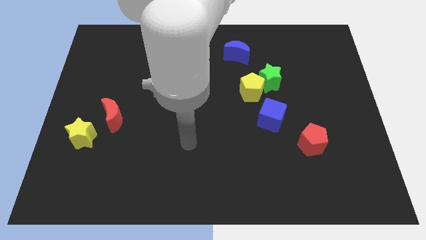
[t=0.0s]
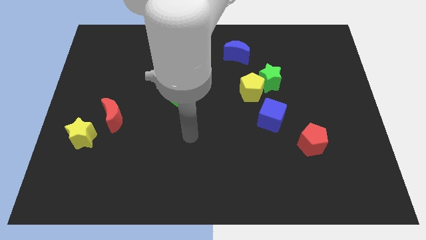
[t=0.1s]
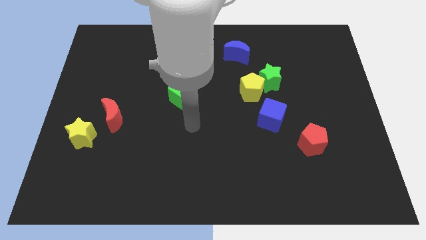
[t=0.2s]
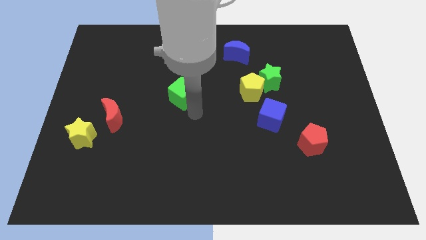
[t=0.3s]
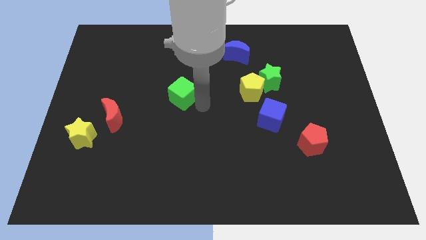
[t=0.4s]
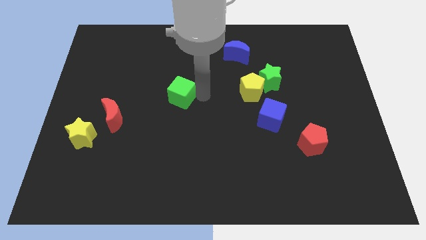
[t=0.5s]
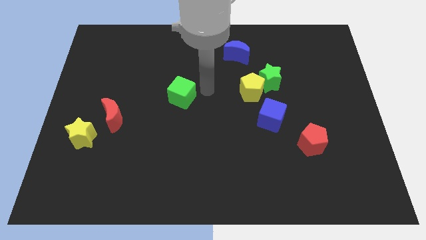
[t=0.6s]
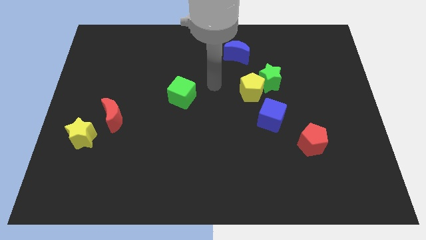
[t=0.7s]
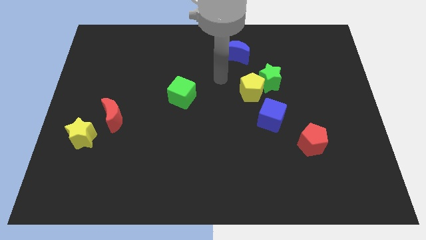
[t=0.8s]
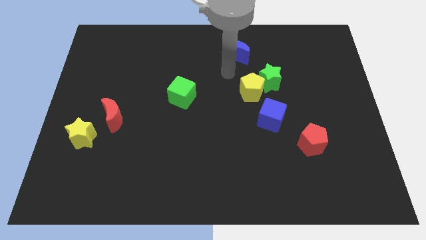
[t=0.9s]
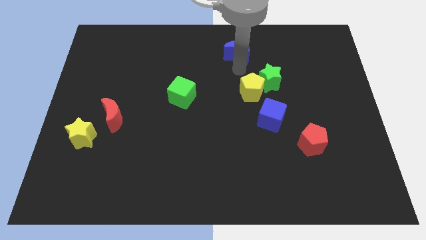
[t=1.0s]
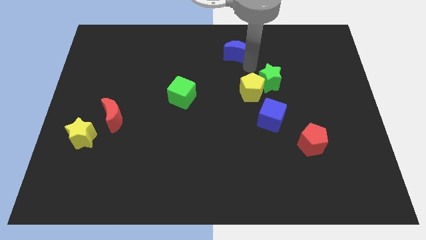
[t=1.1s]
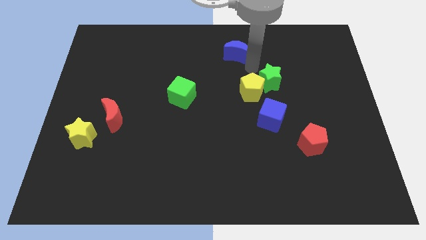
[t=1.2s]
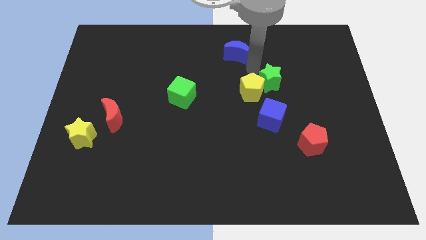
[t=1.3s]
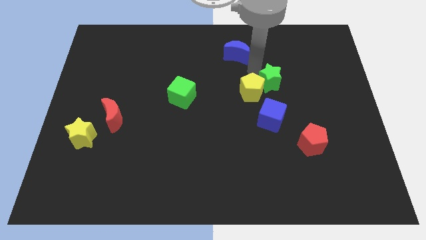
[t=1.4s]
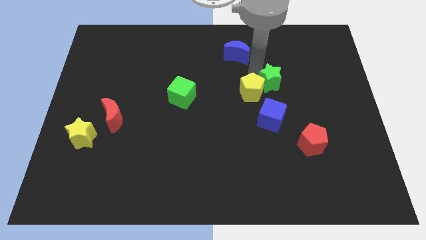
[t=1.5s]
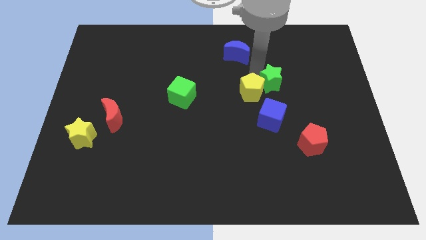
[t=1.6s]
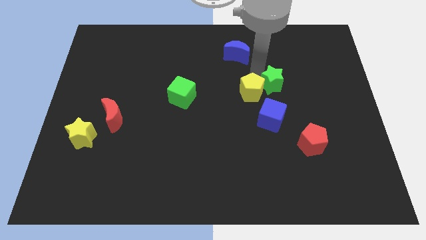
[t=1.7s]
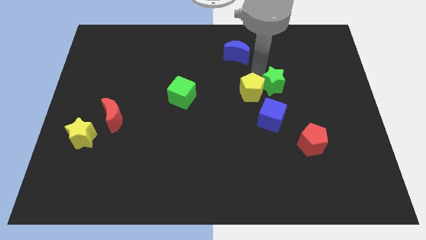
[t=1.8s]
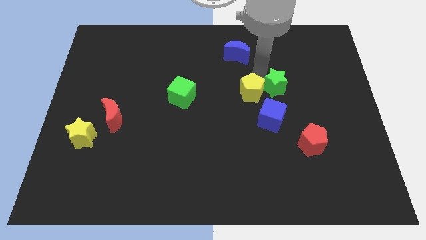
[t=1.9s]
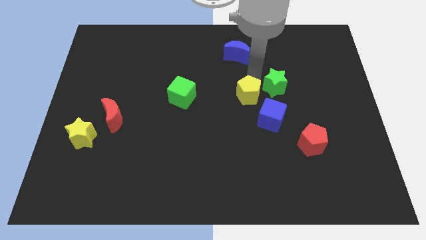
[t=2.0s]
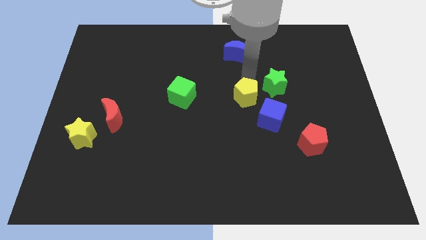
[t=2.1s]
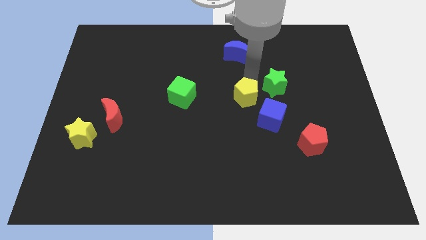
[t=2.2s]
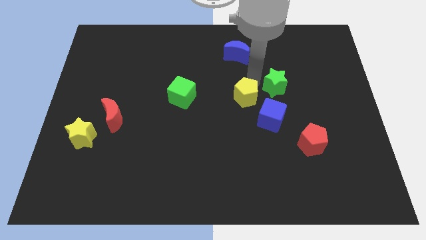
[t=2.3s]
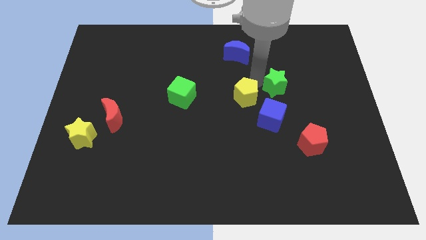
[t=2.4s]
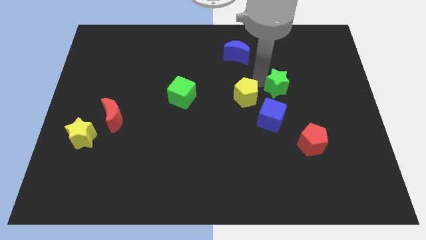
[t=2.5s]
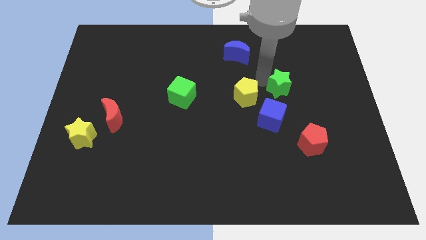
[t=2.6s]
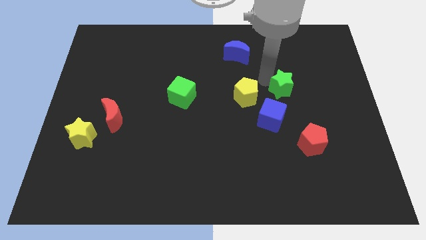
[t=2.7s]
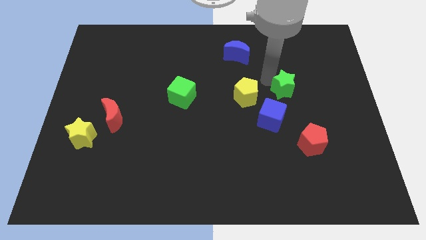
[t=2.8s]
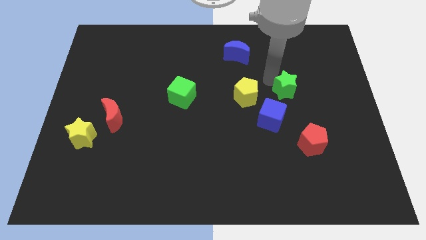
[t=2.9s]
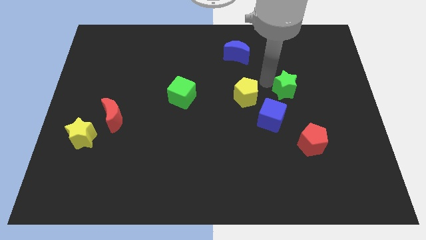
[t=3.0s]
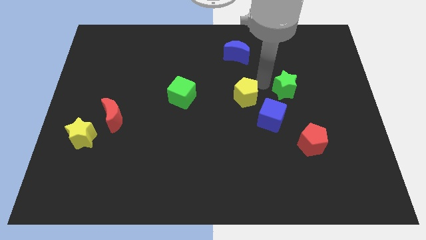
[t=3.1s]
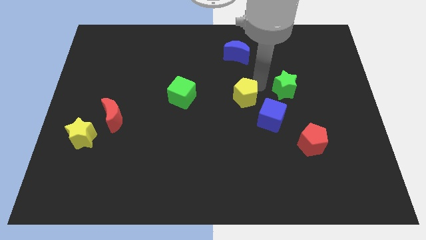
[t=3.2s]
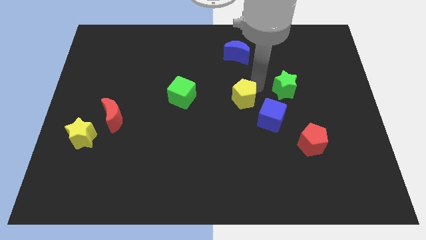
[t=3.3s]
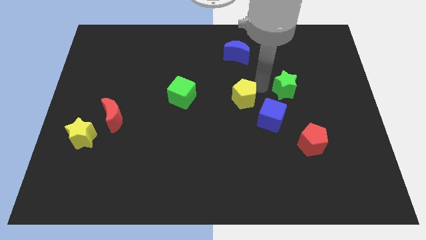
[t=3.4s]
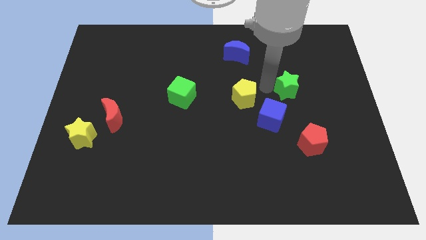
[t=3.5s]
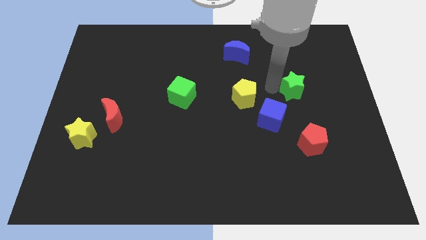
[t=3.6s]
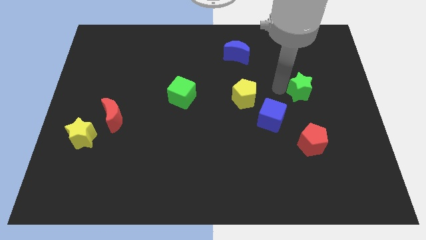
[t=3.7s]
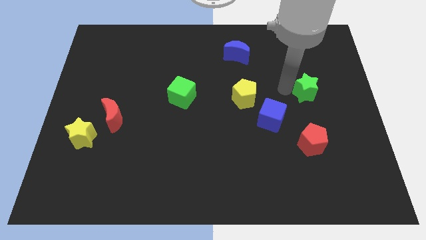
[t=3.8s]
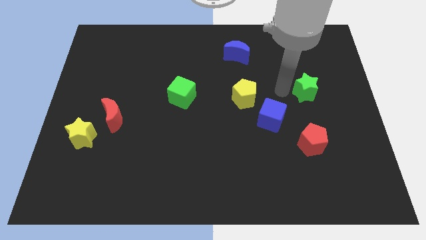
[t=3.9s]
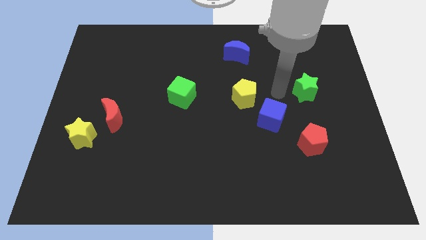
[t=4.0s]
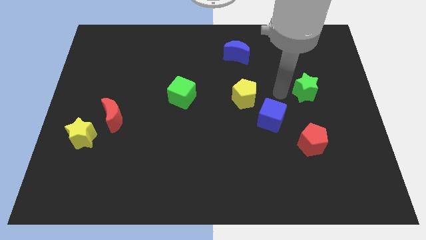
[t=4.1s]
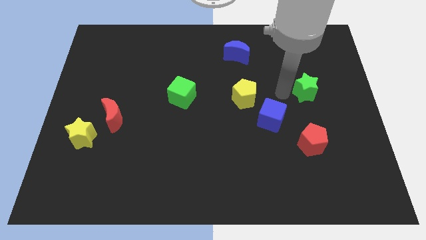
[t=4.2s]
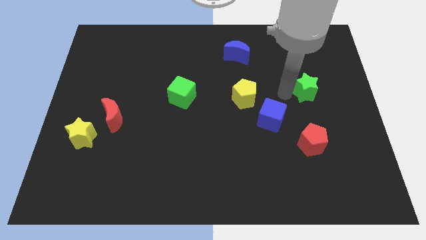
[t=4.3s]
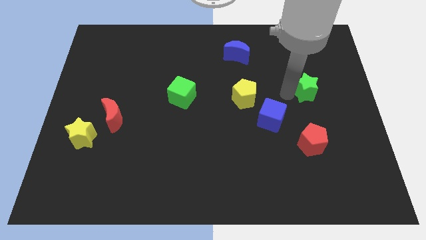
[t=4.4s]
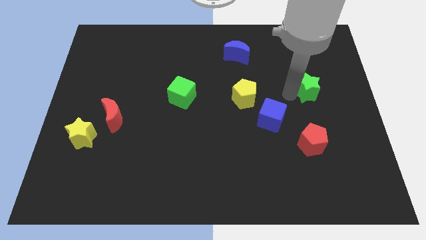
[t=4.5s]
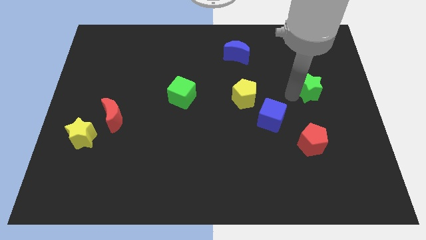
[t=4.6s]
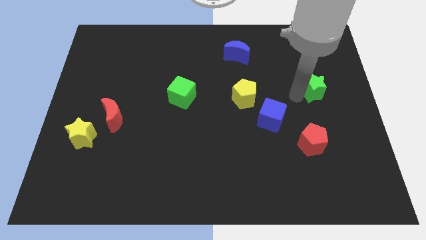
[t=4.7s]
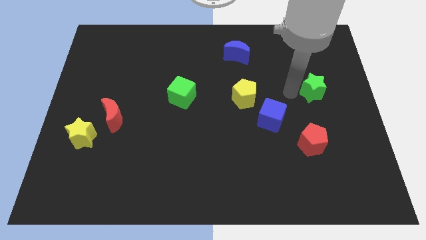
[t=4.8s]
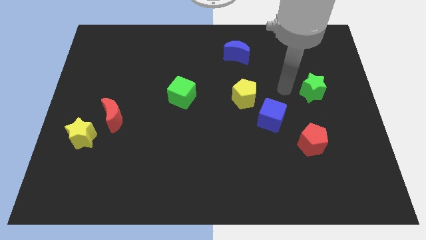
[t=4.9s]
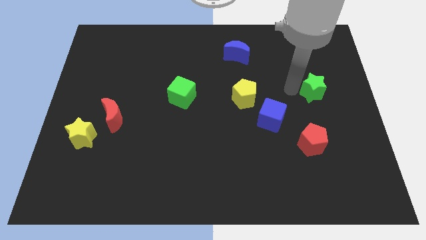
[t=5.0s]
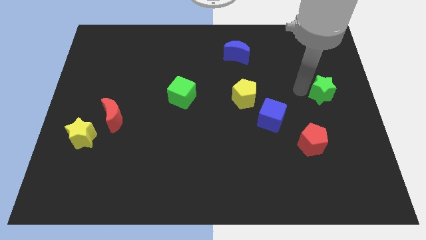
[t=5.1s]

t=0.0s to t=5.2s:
slide the green star to the right side of the board

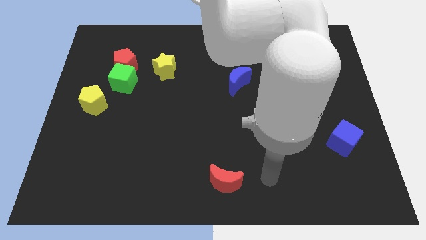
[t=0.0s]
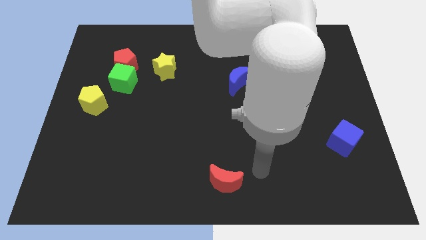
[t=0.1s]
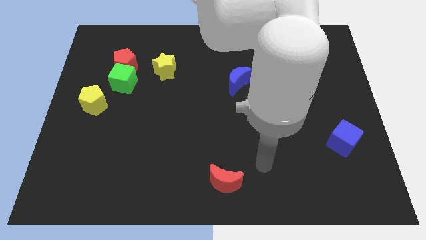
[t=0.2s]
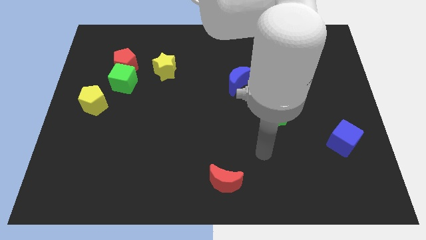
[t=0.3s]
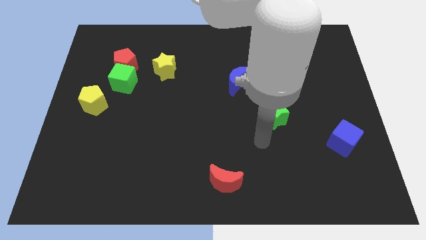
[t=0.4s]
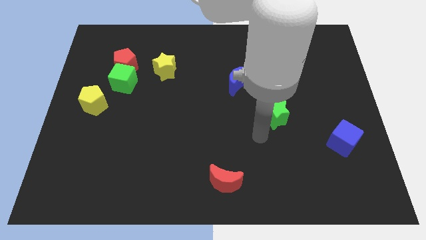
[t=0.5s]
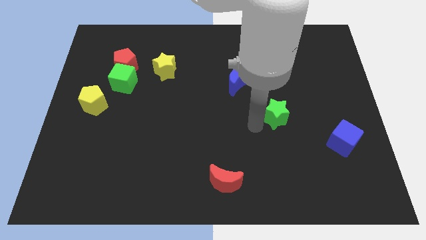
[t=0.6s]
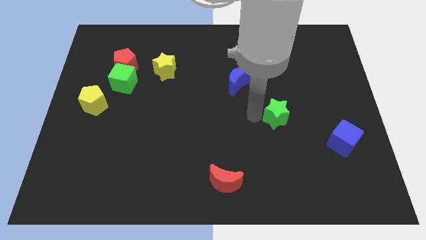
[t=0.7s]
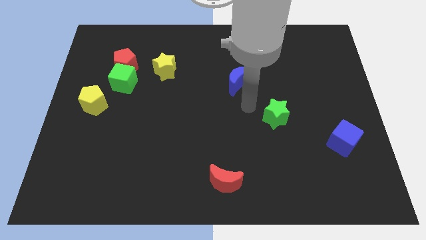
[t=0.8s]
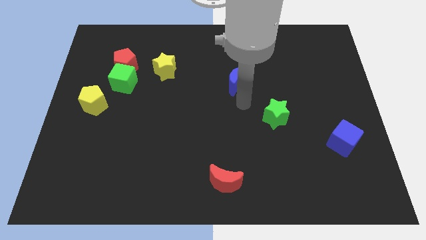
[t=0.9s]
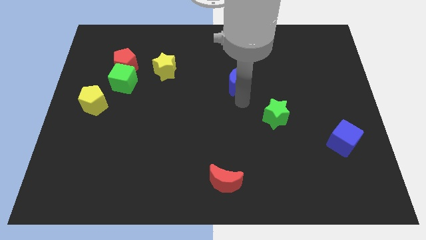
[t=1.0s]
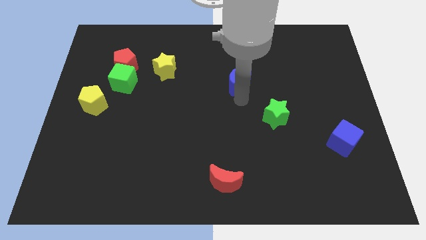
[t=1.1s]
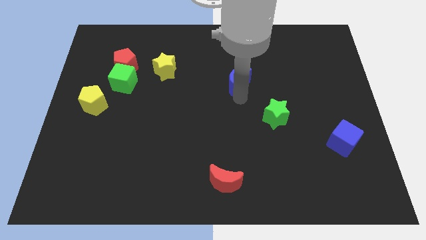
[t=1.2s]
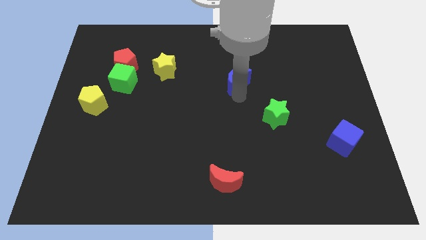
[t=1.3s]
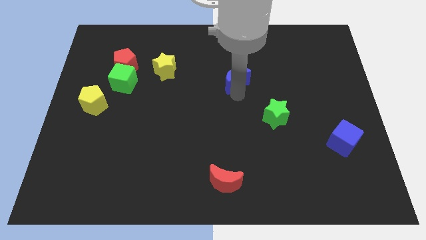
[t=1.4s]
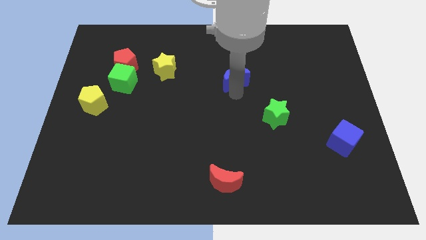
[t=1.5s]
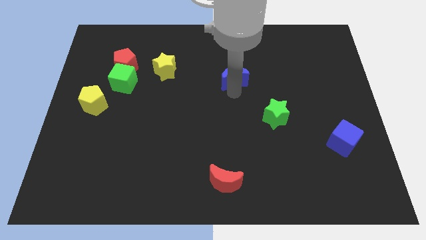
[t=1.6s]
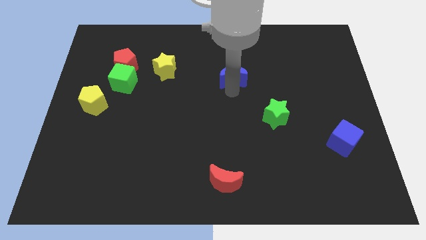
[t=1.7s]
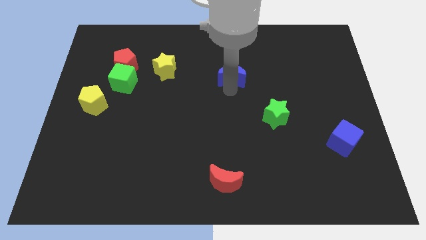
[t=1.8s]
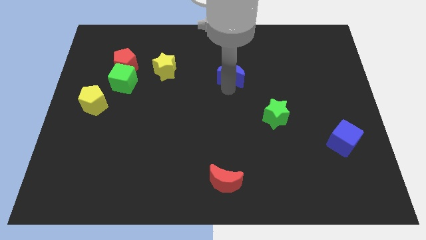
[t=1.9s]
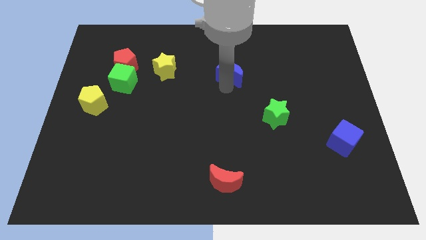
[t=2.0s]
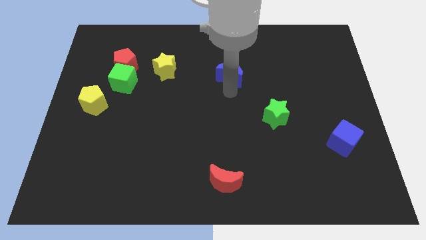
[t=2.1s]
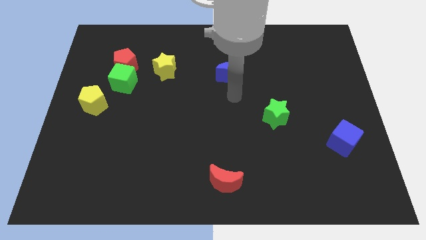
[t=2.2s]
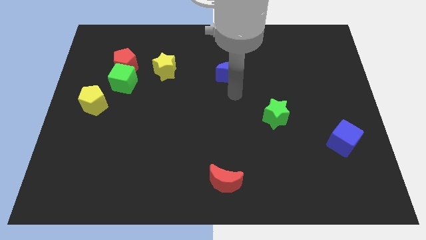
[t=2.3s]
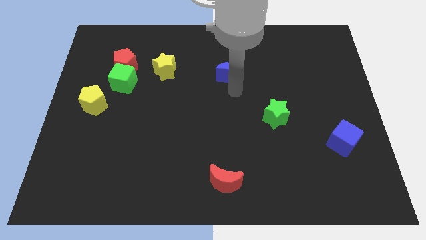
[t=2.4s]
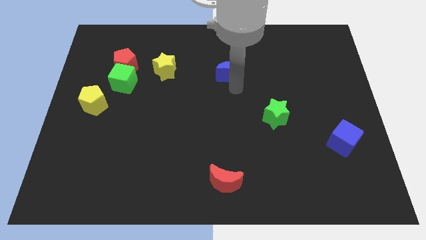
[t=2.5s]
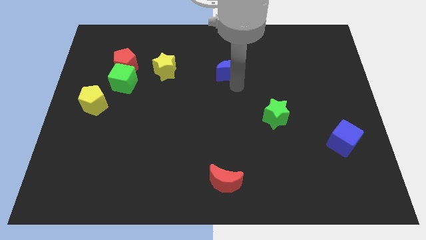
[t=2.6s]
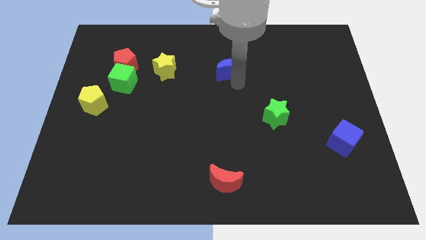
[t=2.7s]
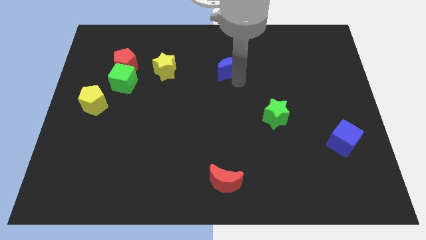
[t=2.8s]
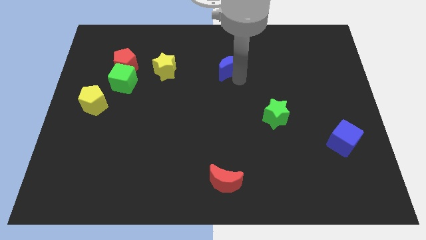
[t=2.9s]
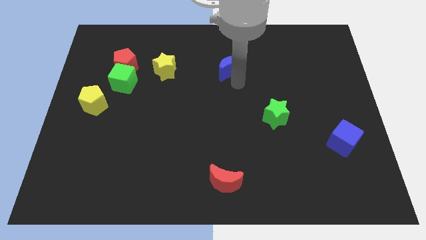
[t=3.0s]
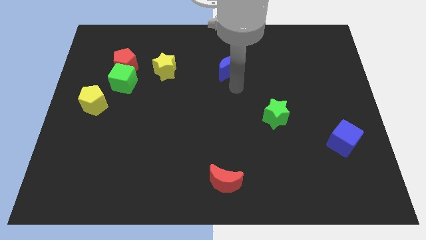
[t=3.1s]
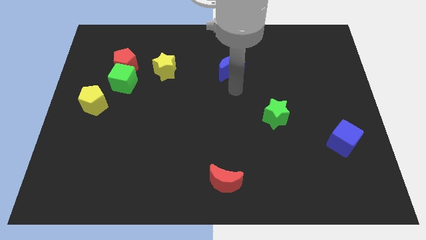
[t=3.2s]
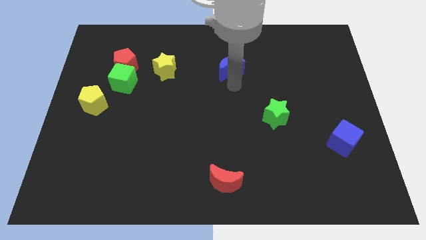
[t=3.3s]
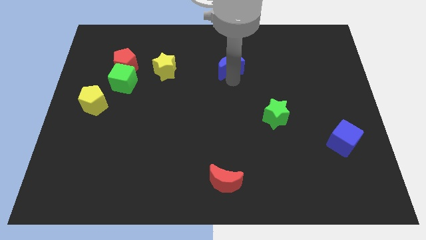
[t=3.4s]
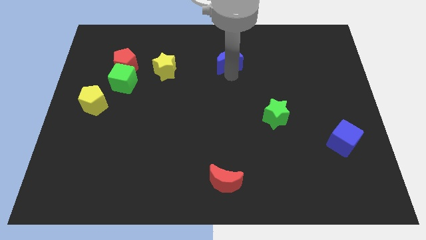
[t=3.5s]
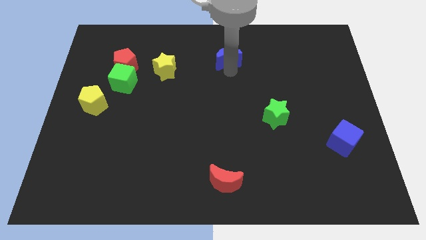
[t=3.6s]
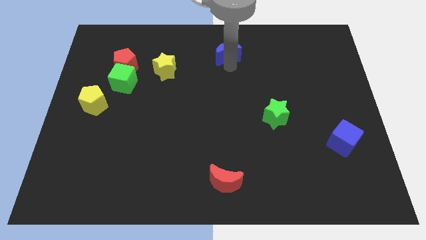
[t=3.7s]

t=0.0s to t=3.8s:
put the blue moon to the top side
